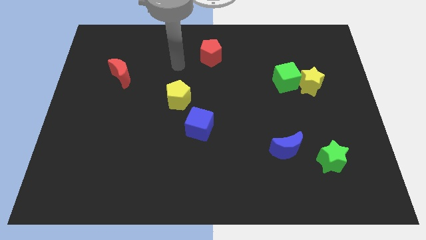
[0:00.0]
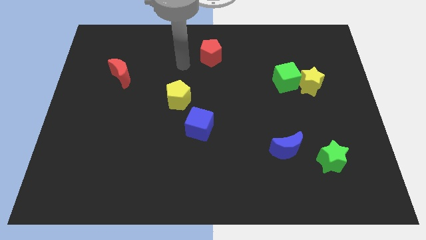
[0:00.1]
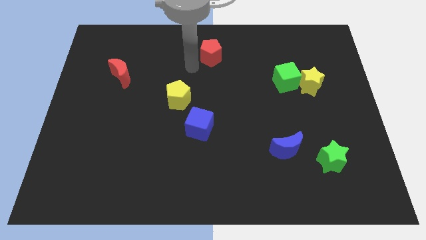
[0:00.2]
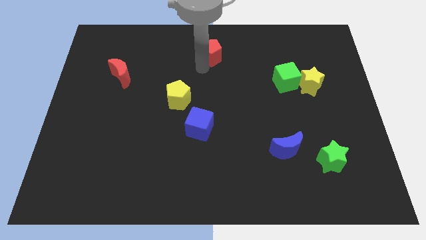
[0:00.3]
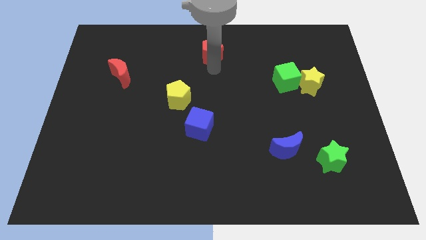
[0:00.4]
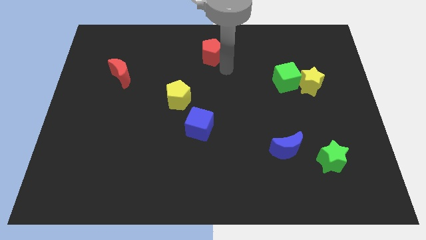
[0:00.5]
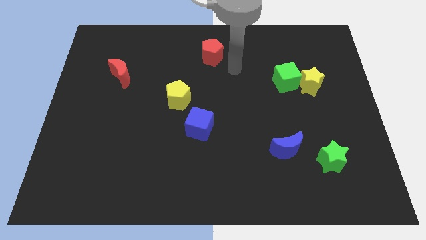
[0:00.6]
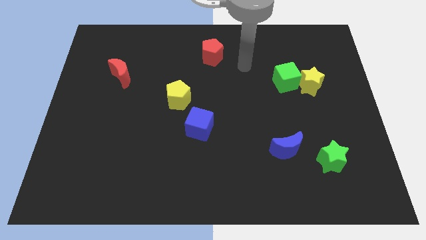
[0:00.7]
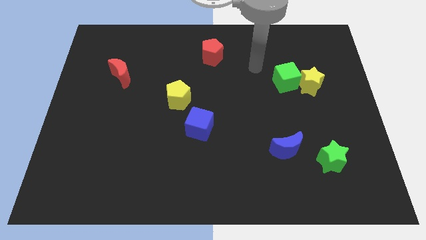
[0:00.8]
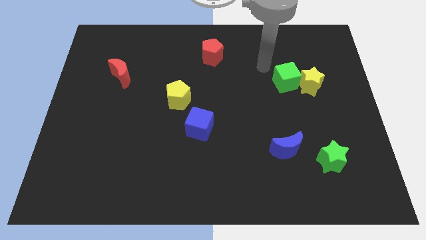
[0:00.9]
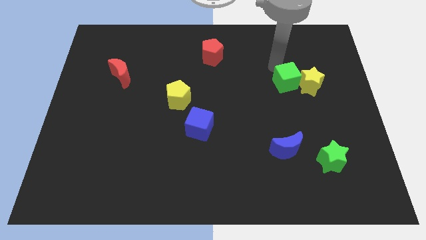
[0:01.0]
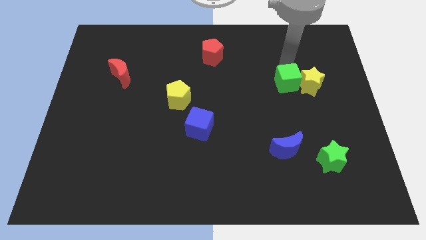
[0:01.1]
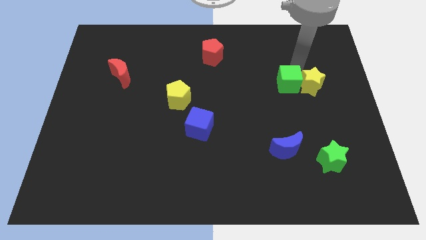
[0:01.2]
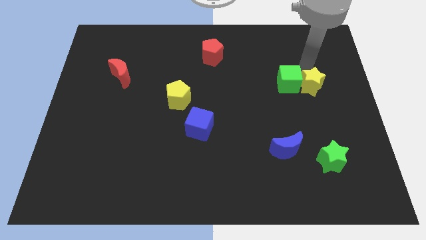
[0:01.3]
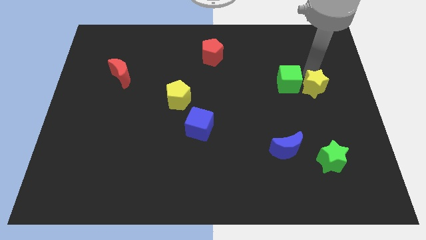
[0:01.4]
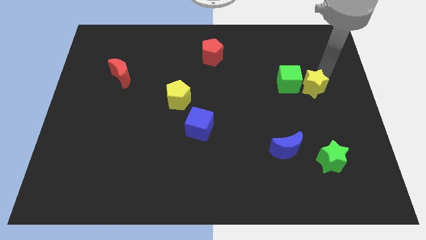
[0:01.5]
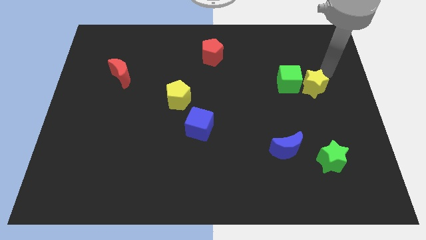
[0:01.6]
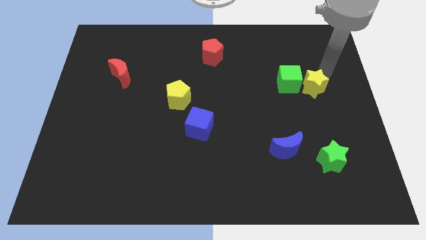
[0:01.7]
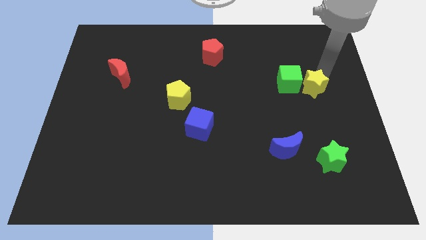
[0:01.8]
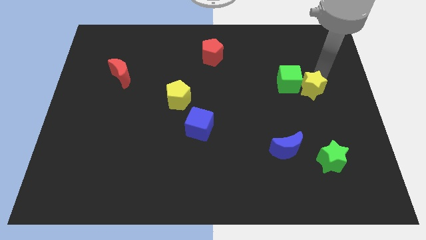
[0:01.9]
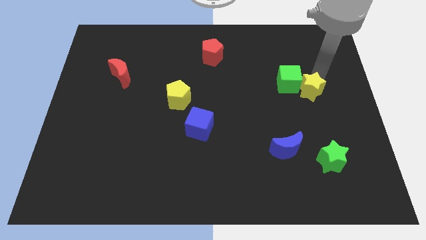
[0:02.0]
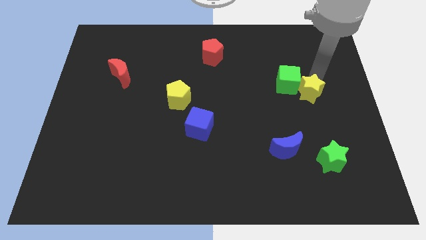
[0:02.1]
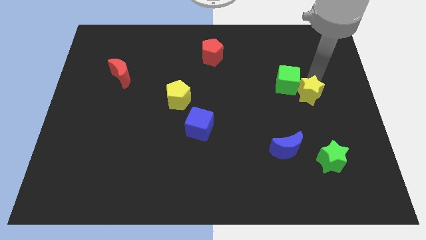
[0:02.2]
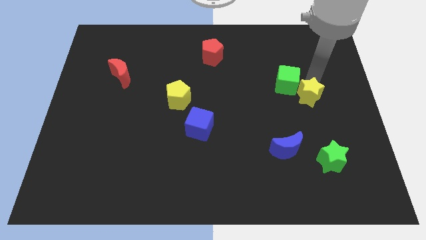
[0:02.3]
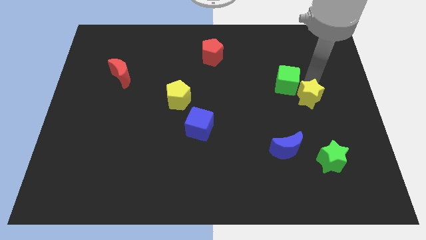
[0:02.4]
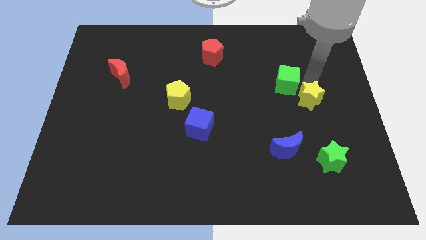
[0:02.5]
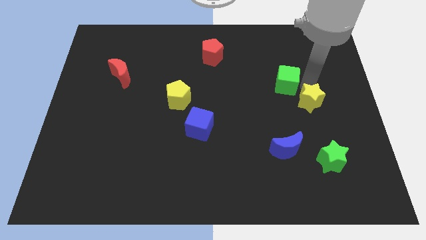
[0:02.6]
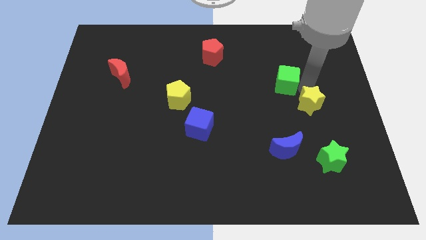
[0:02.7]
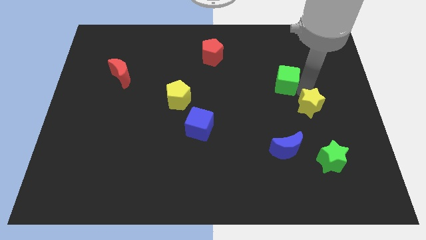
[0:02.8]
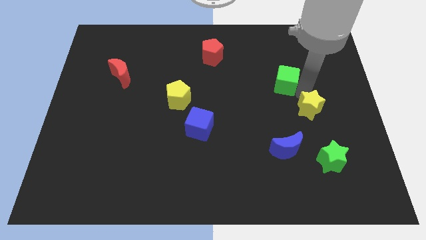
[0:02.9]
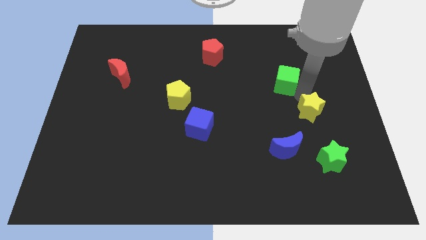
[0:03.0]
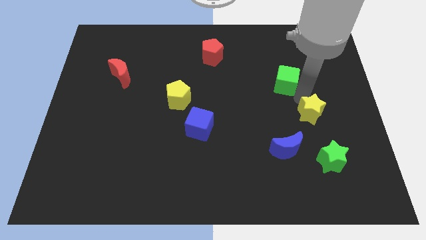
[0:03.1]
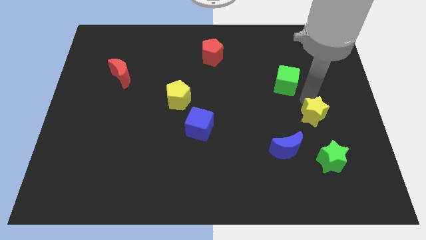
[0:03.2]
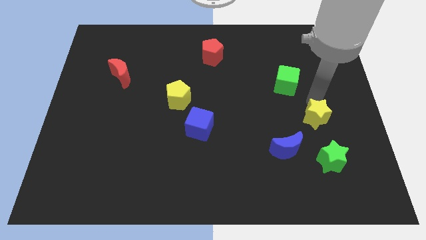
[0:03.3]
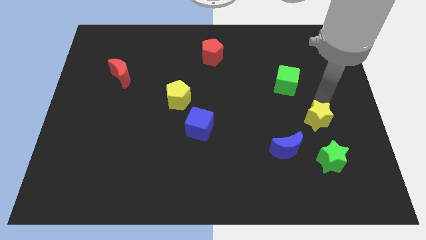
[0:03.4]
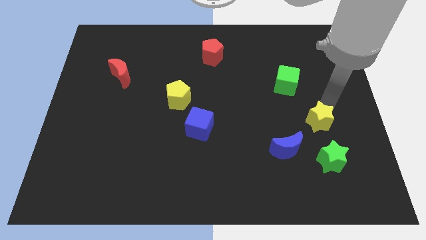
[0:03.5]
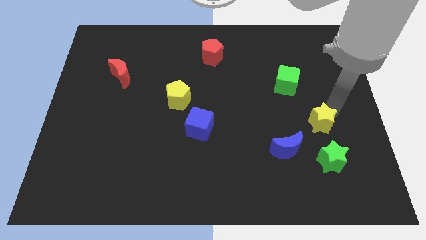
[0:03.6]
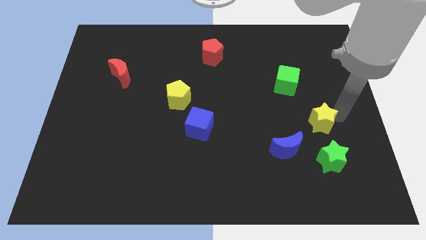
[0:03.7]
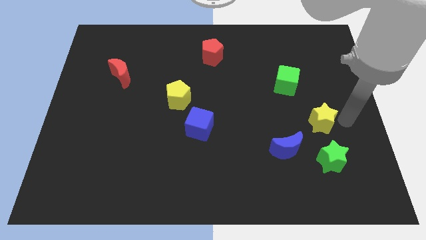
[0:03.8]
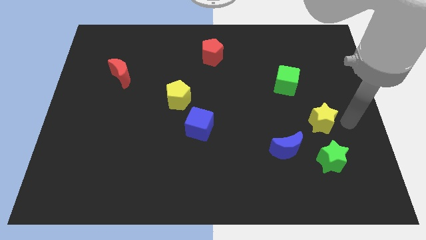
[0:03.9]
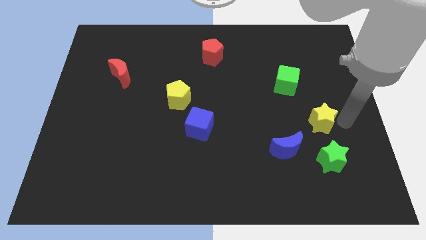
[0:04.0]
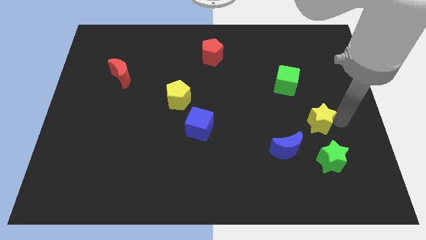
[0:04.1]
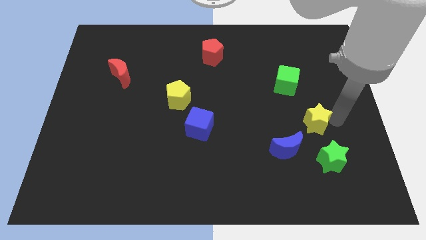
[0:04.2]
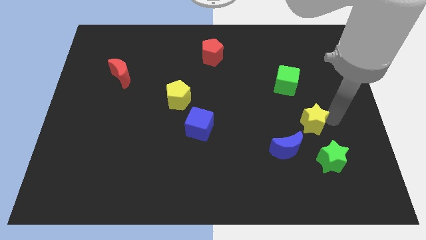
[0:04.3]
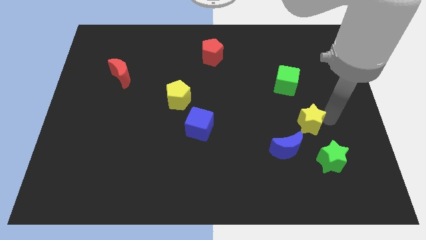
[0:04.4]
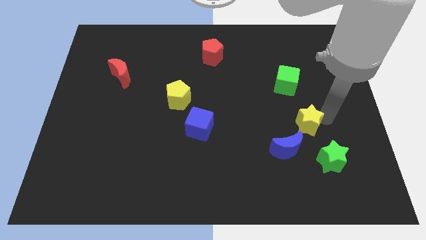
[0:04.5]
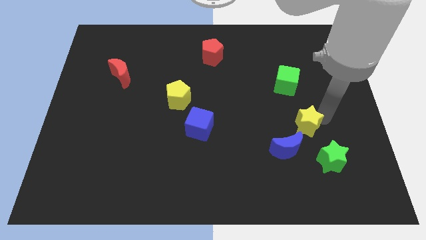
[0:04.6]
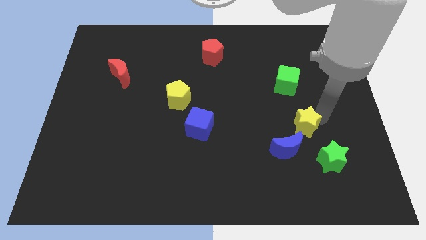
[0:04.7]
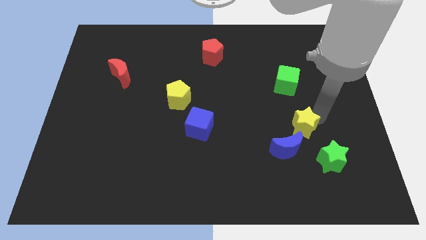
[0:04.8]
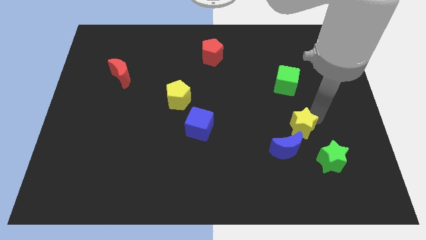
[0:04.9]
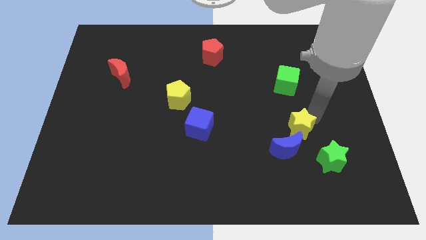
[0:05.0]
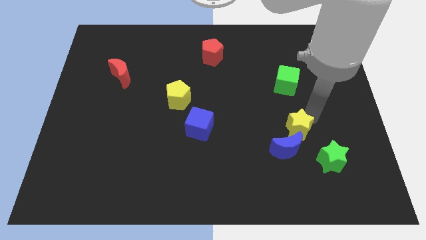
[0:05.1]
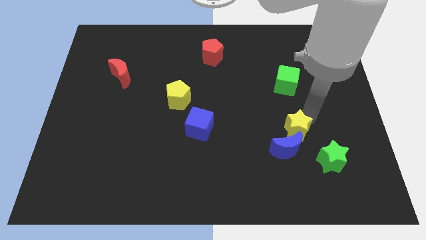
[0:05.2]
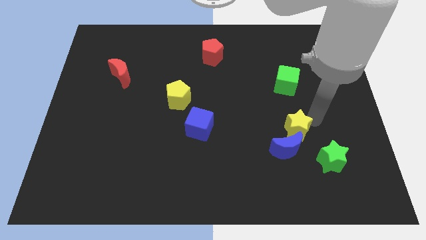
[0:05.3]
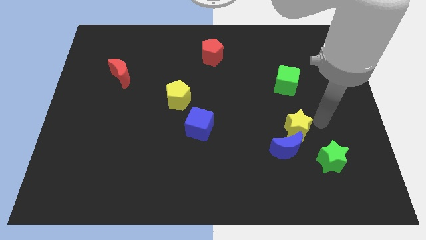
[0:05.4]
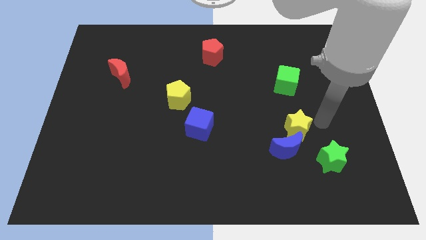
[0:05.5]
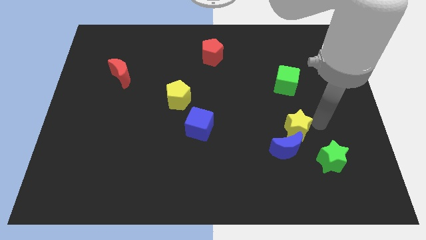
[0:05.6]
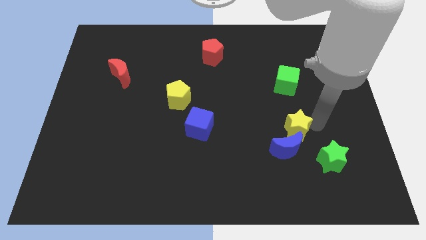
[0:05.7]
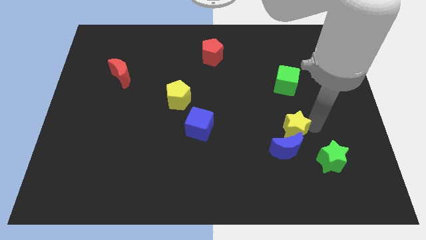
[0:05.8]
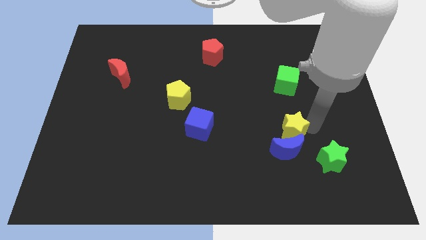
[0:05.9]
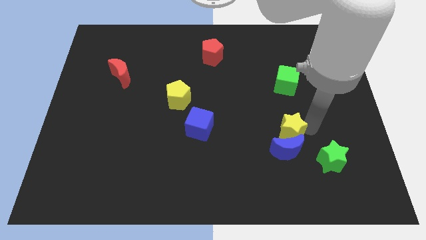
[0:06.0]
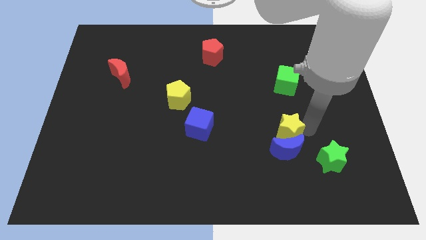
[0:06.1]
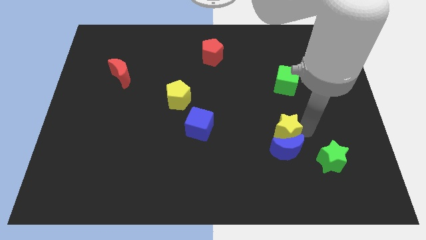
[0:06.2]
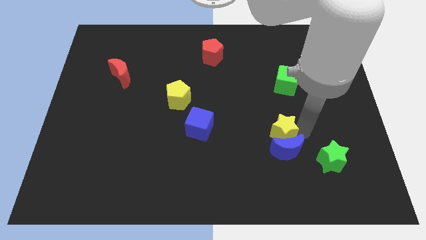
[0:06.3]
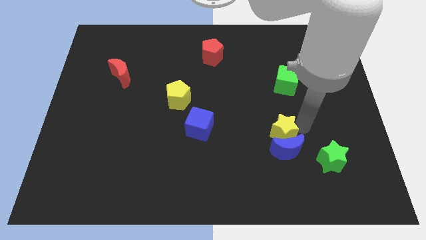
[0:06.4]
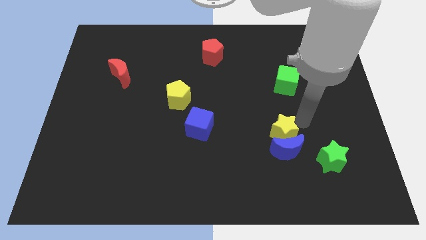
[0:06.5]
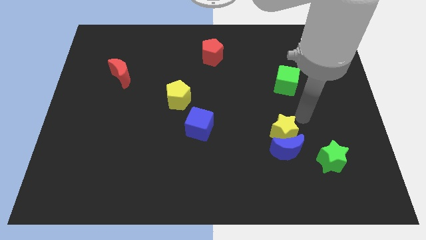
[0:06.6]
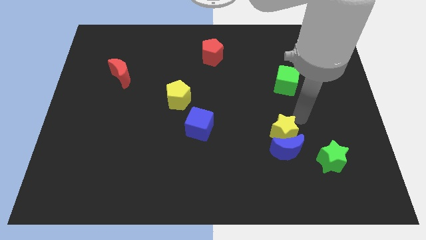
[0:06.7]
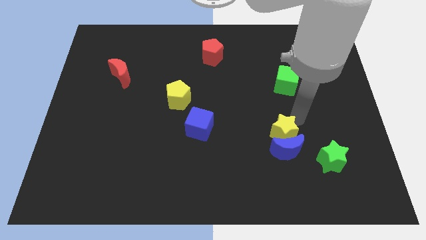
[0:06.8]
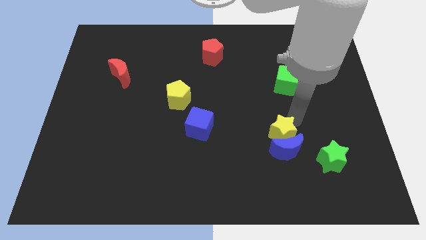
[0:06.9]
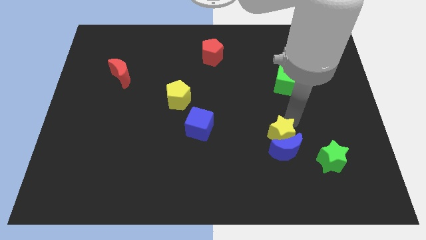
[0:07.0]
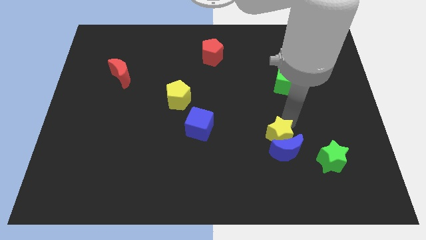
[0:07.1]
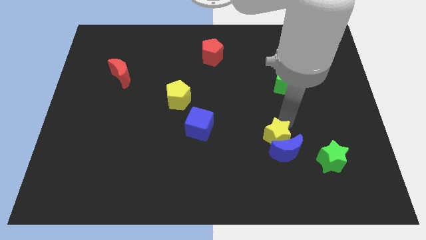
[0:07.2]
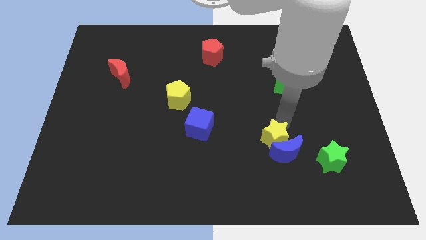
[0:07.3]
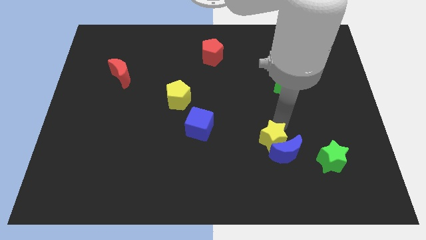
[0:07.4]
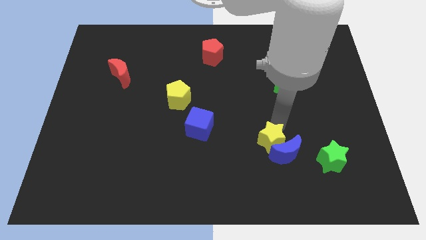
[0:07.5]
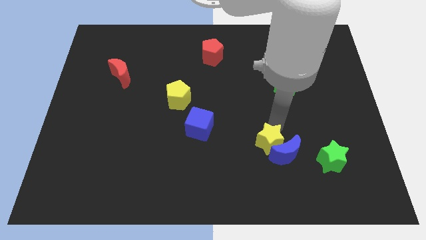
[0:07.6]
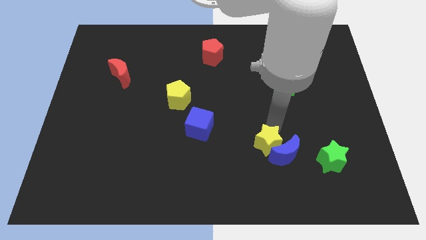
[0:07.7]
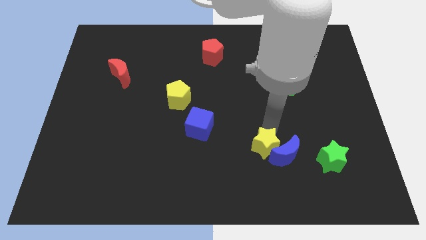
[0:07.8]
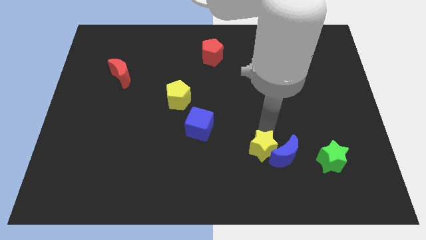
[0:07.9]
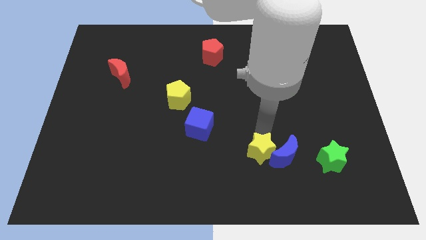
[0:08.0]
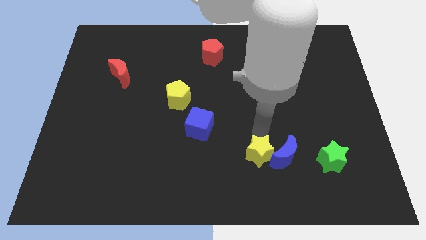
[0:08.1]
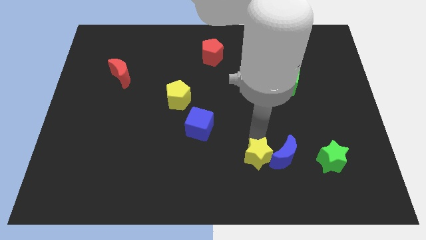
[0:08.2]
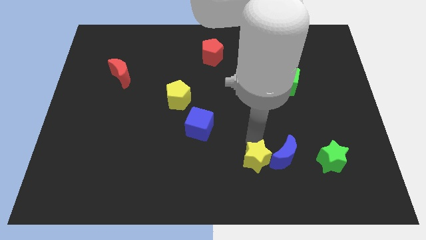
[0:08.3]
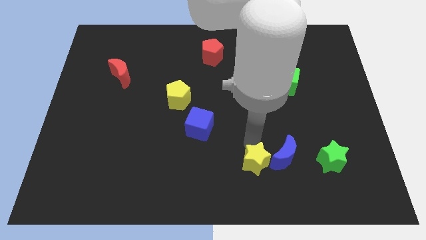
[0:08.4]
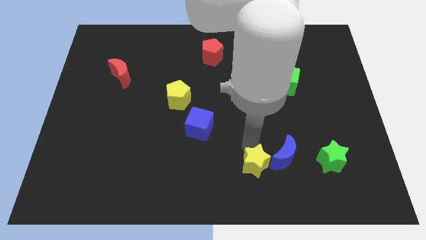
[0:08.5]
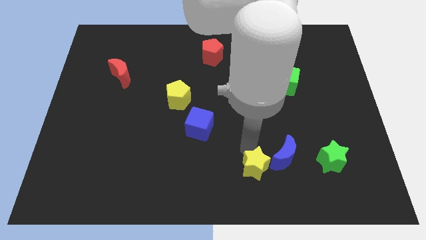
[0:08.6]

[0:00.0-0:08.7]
slide the yellow star to the bottom side
